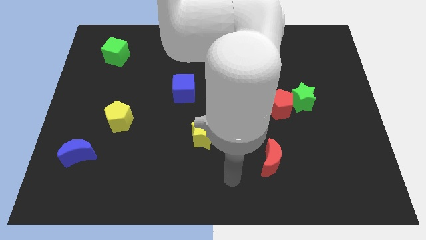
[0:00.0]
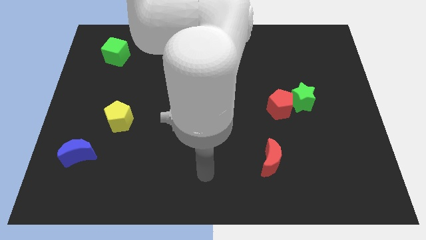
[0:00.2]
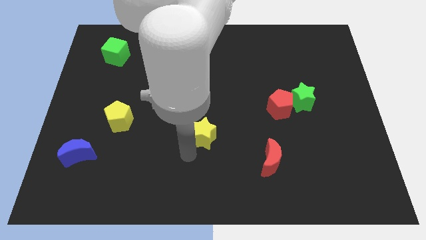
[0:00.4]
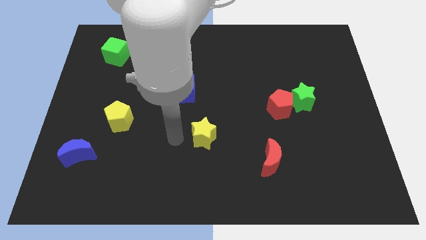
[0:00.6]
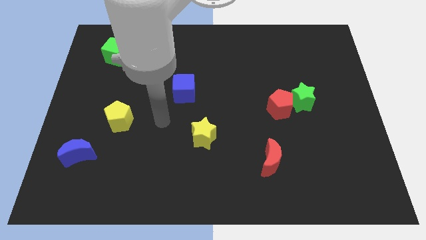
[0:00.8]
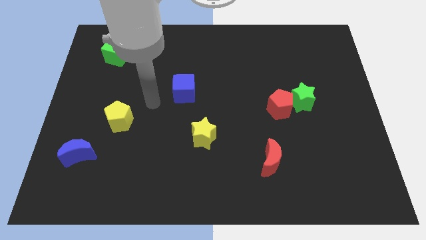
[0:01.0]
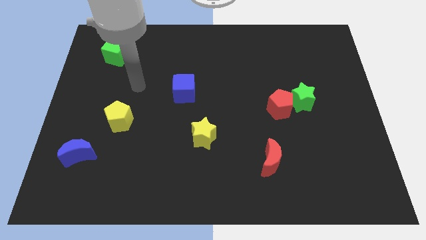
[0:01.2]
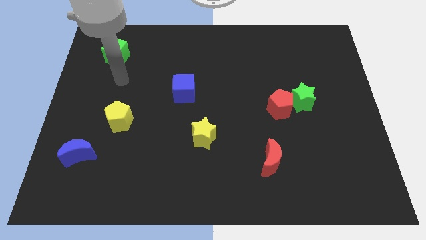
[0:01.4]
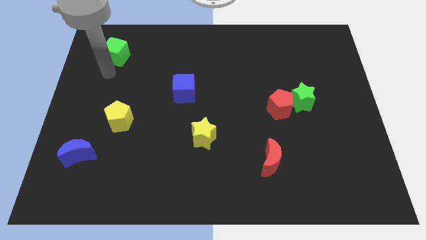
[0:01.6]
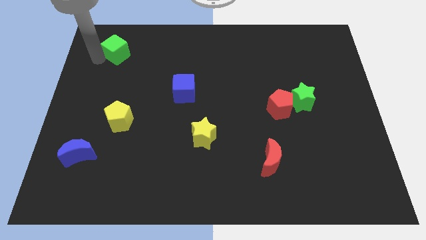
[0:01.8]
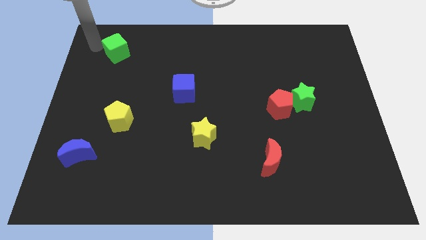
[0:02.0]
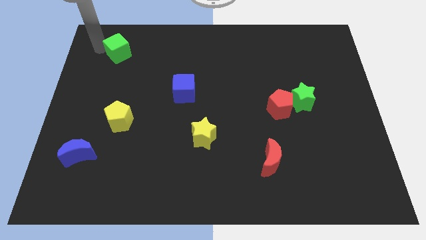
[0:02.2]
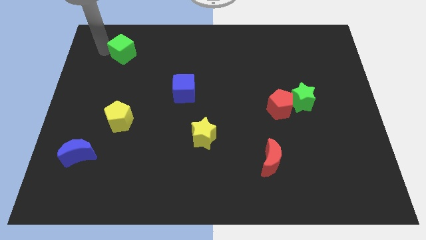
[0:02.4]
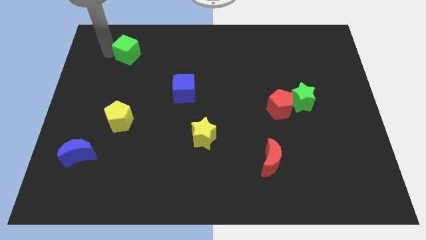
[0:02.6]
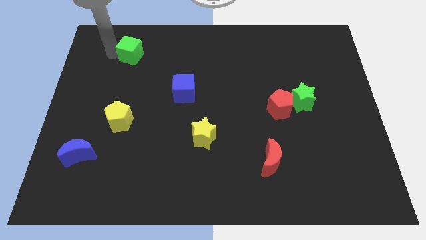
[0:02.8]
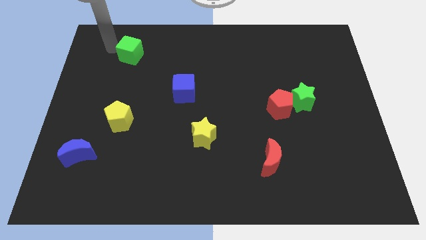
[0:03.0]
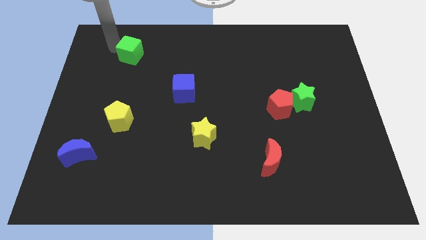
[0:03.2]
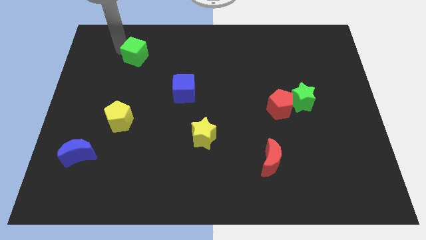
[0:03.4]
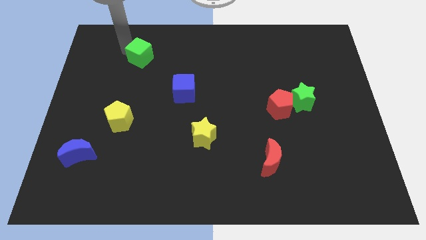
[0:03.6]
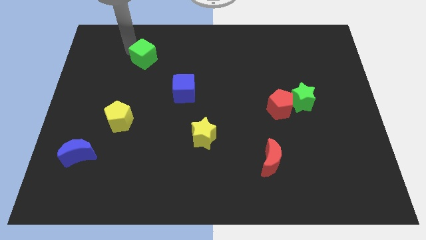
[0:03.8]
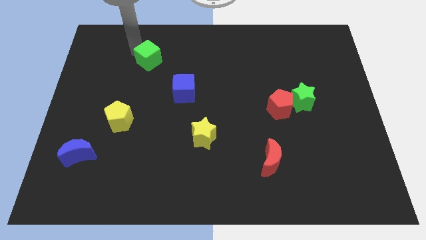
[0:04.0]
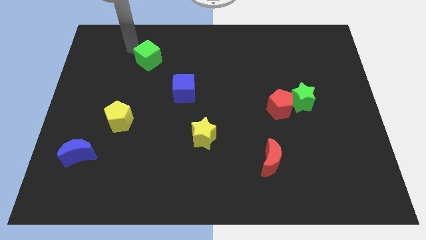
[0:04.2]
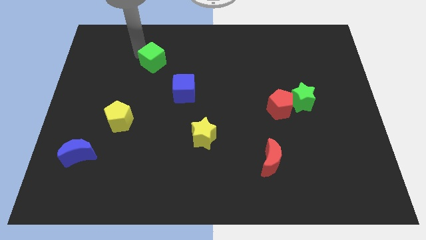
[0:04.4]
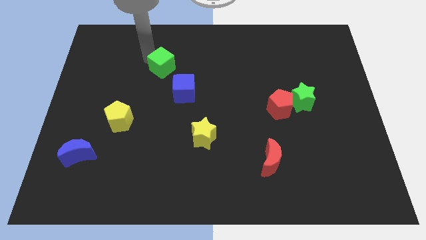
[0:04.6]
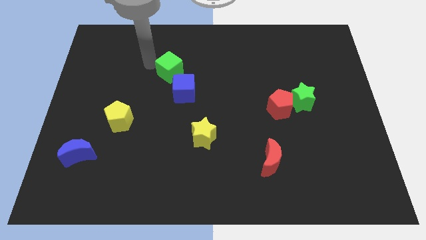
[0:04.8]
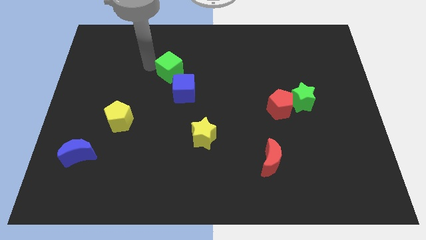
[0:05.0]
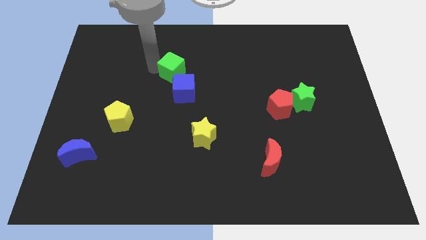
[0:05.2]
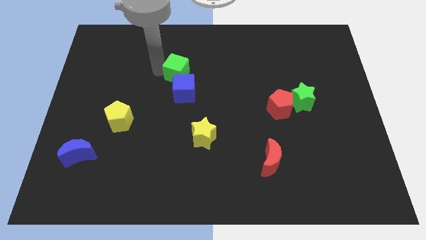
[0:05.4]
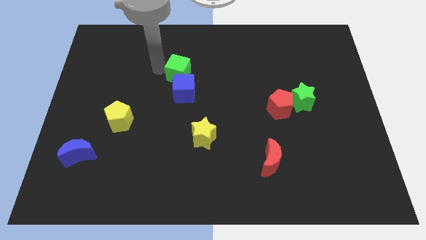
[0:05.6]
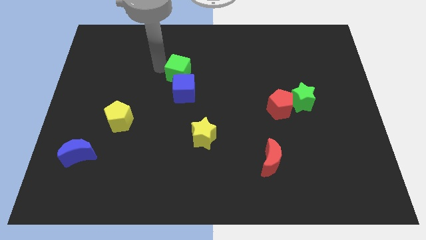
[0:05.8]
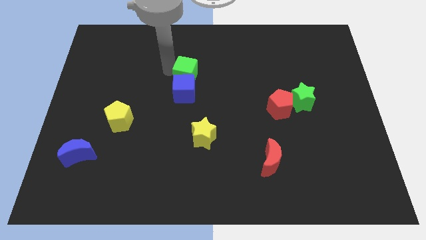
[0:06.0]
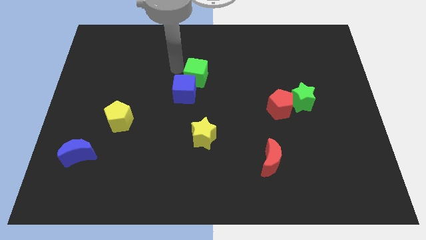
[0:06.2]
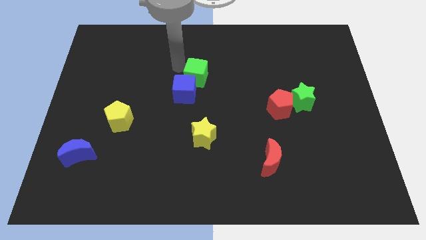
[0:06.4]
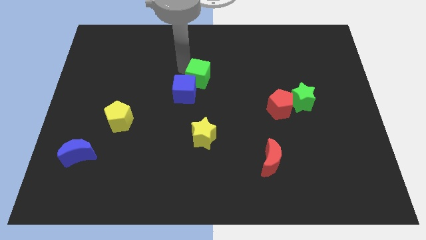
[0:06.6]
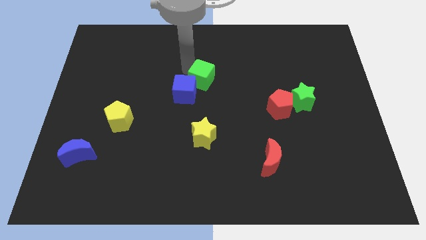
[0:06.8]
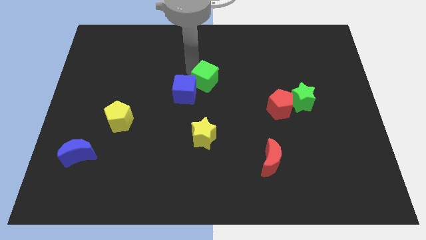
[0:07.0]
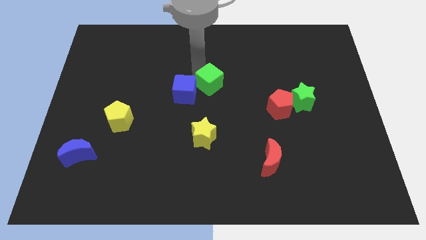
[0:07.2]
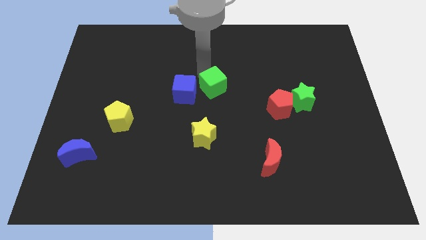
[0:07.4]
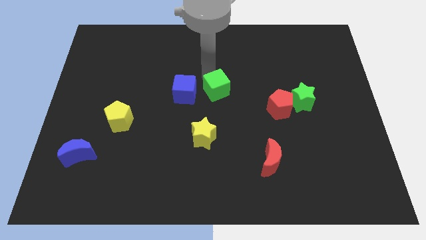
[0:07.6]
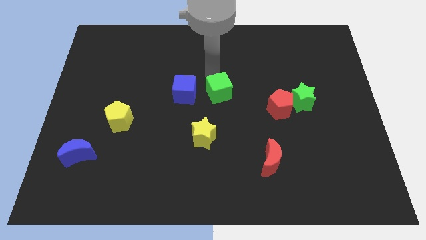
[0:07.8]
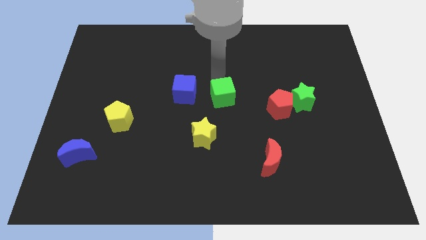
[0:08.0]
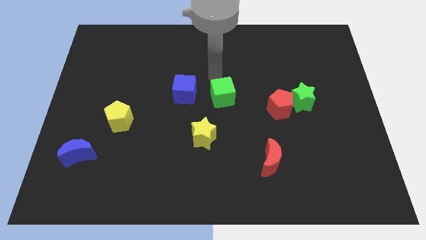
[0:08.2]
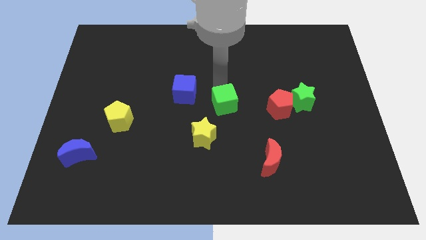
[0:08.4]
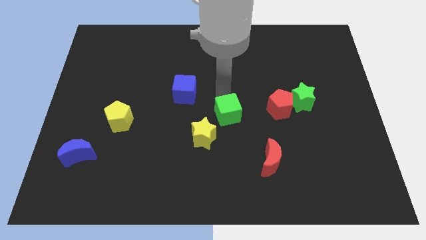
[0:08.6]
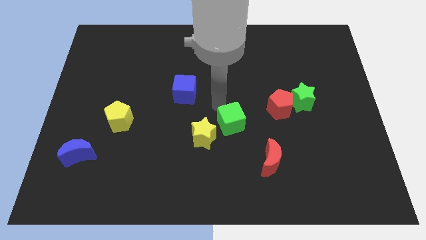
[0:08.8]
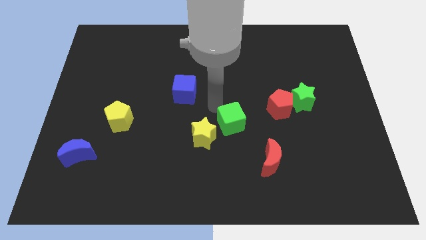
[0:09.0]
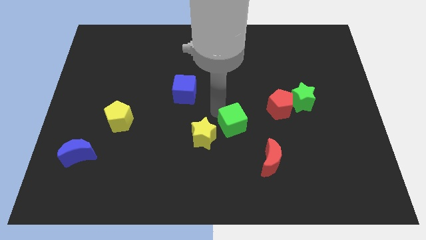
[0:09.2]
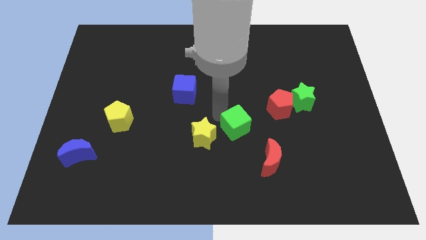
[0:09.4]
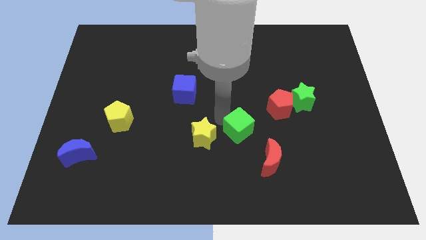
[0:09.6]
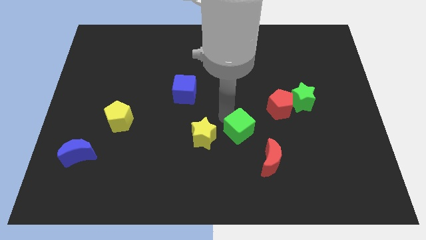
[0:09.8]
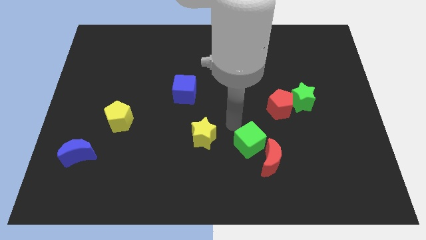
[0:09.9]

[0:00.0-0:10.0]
move the green cube next to the red moon

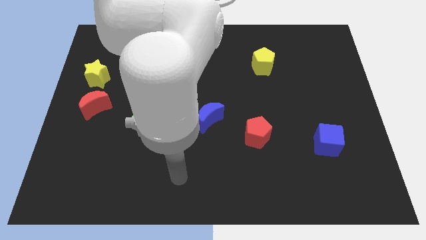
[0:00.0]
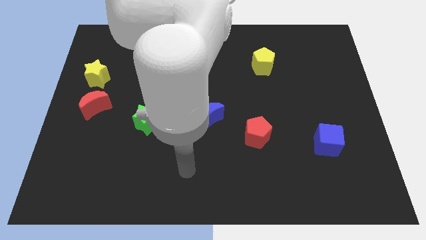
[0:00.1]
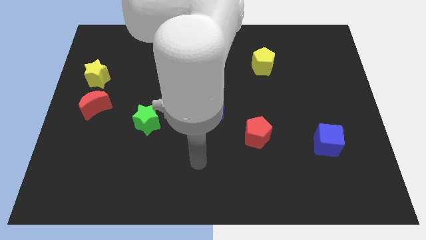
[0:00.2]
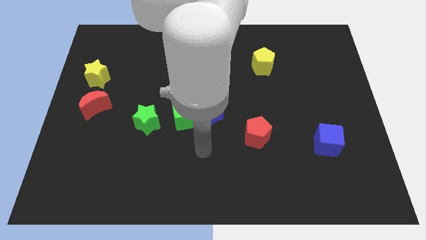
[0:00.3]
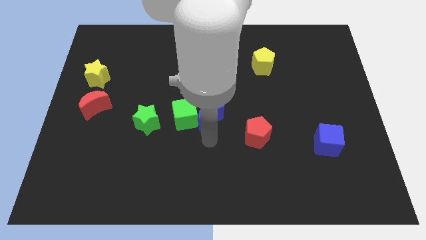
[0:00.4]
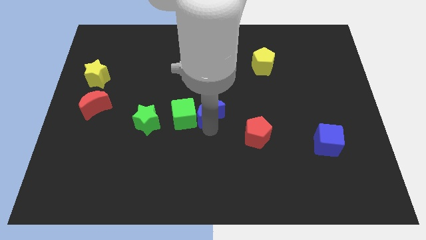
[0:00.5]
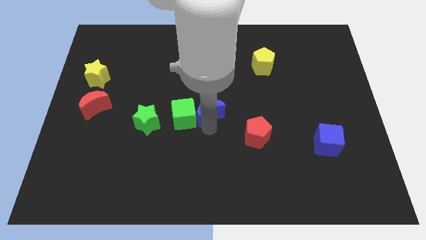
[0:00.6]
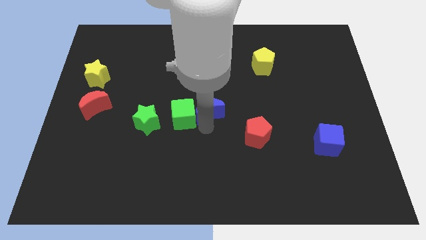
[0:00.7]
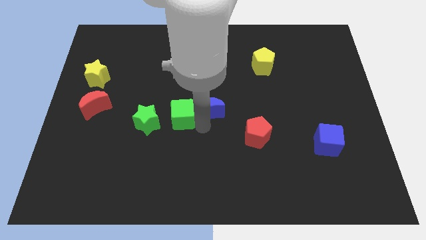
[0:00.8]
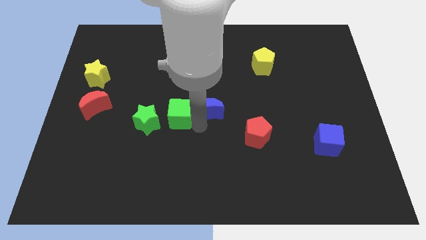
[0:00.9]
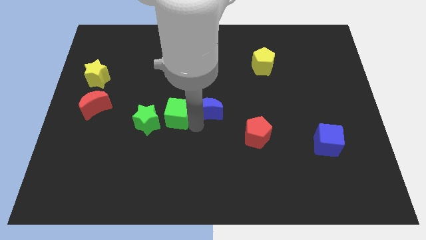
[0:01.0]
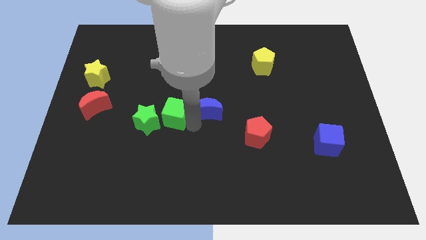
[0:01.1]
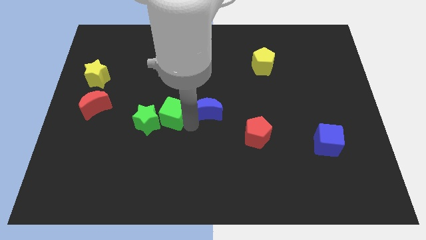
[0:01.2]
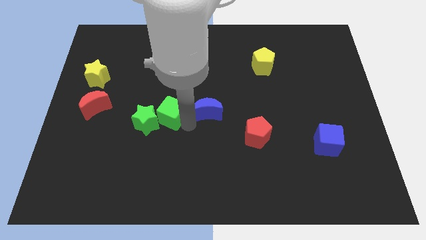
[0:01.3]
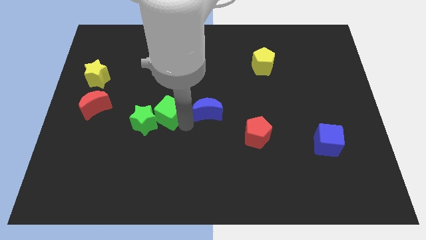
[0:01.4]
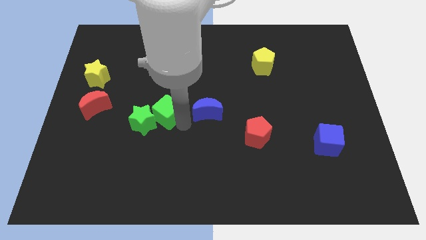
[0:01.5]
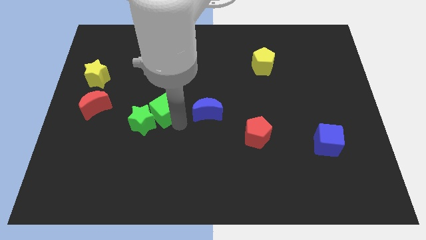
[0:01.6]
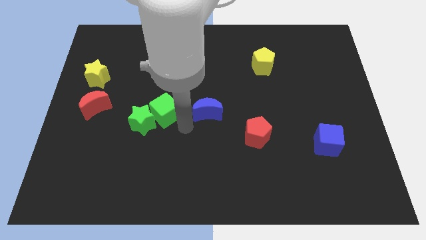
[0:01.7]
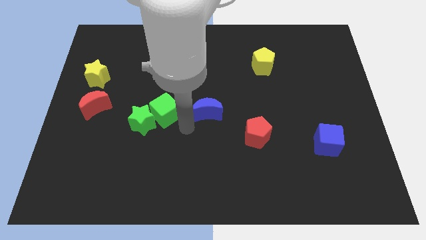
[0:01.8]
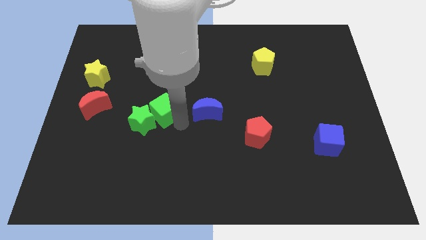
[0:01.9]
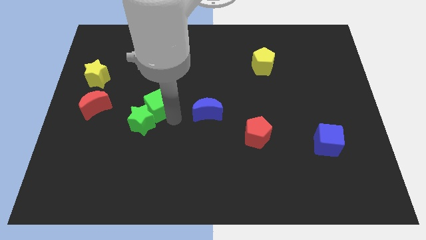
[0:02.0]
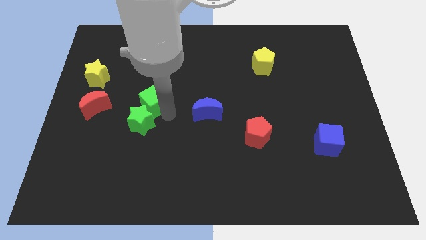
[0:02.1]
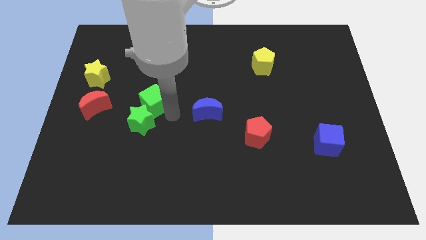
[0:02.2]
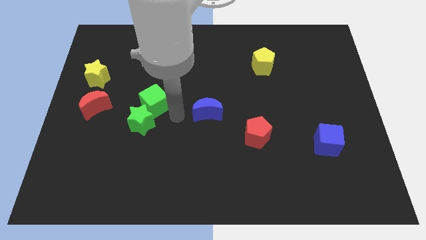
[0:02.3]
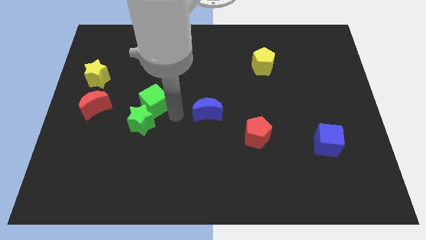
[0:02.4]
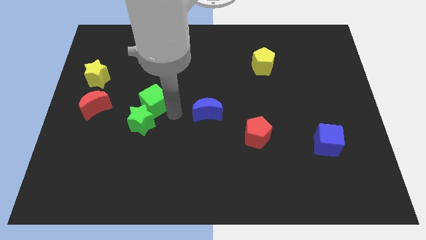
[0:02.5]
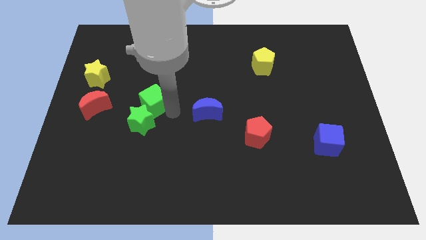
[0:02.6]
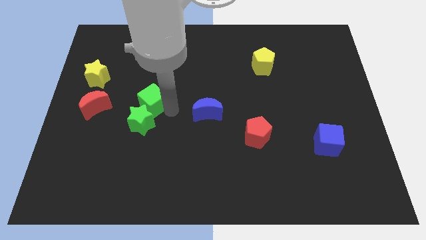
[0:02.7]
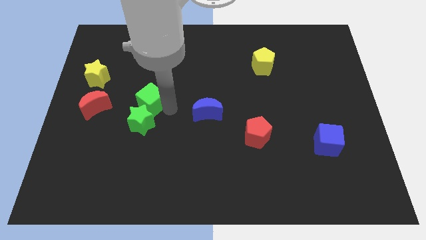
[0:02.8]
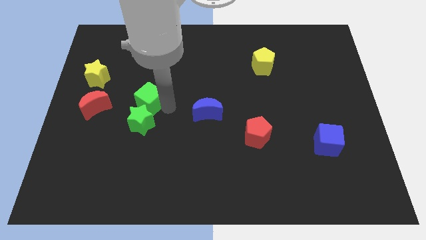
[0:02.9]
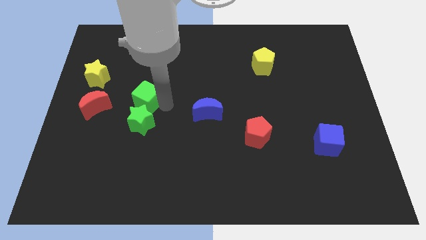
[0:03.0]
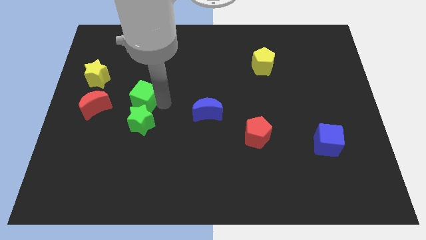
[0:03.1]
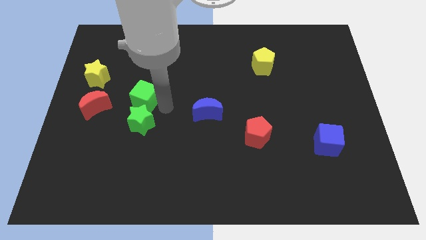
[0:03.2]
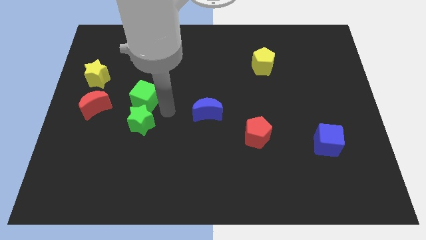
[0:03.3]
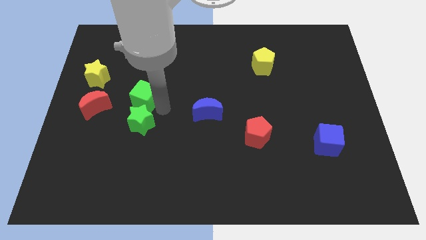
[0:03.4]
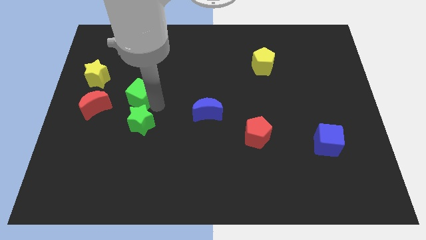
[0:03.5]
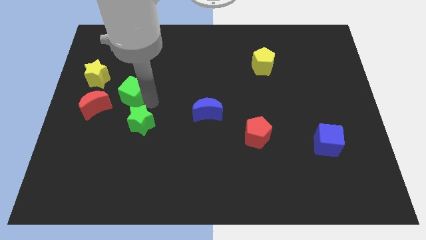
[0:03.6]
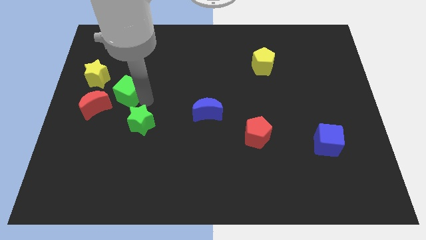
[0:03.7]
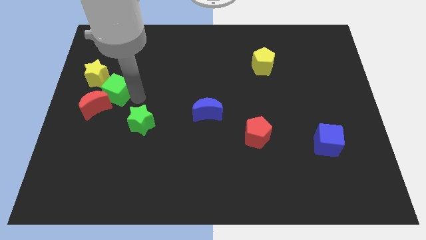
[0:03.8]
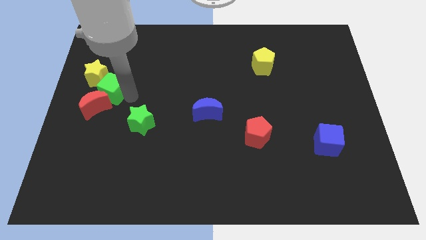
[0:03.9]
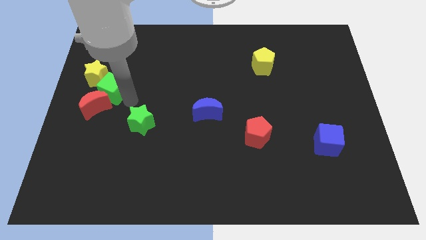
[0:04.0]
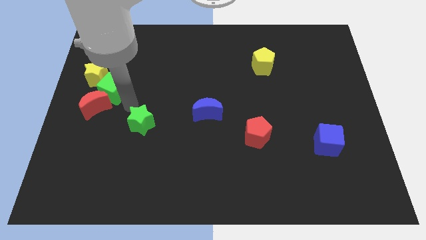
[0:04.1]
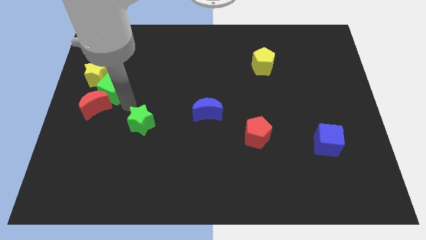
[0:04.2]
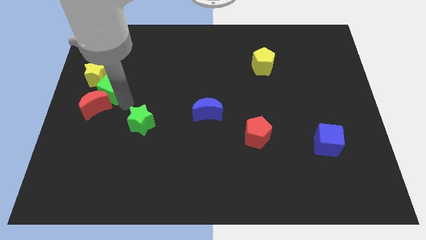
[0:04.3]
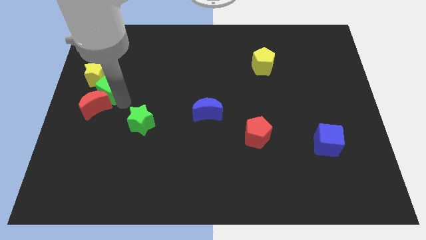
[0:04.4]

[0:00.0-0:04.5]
put the green cube to the yellow star
